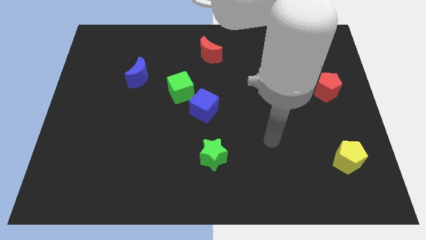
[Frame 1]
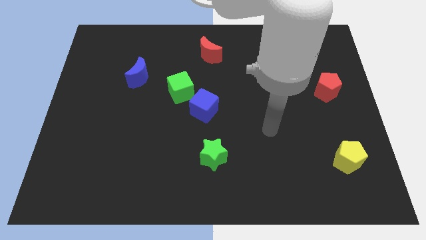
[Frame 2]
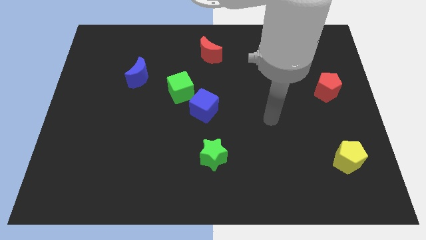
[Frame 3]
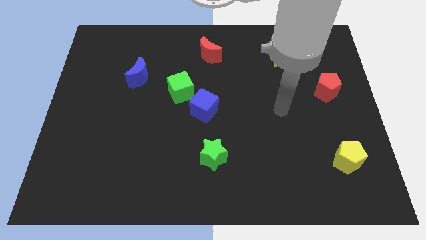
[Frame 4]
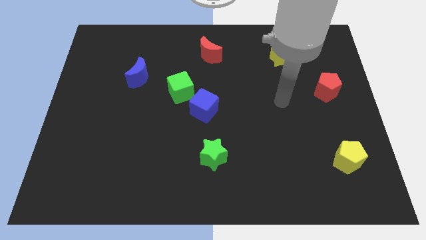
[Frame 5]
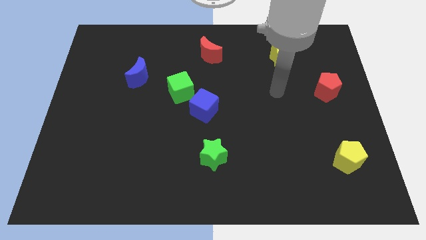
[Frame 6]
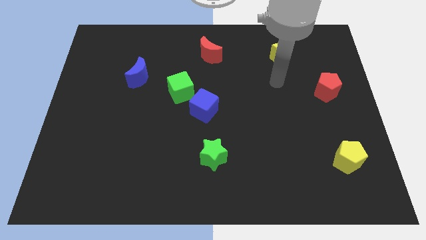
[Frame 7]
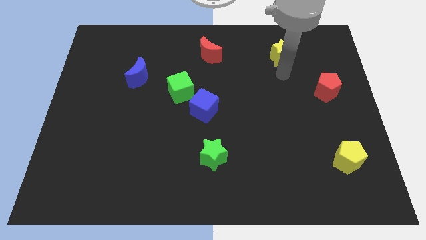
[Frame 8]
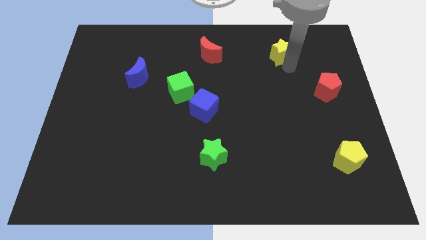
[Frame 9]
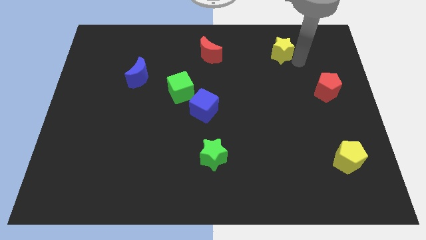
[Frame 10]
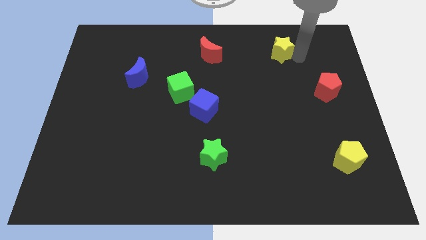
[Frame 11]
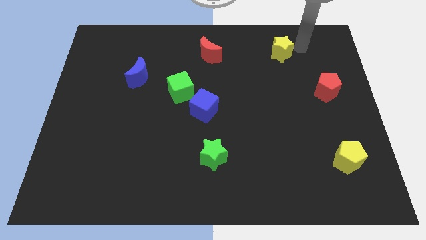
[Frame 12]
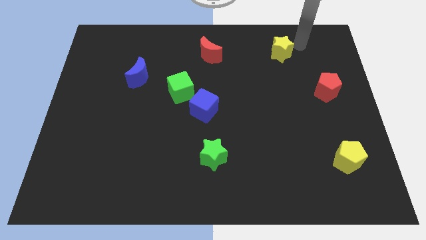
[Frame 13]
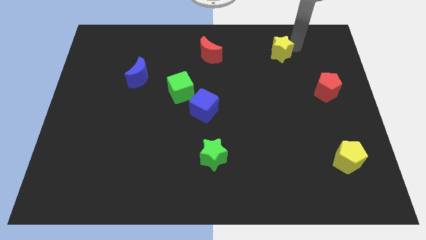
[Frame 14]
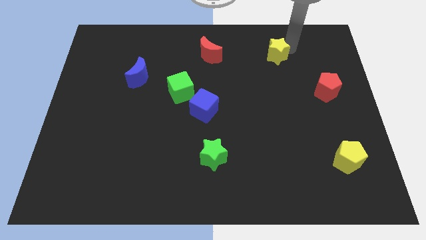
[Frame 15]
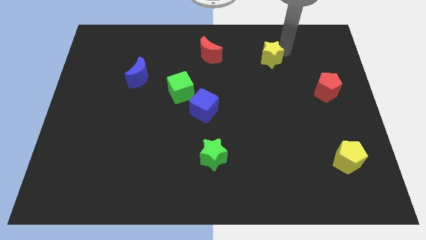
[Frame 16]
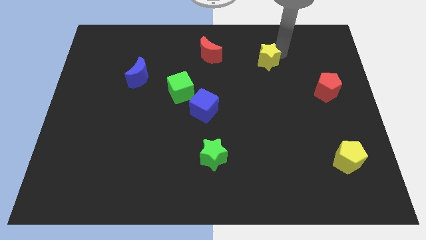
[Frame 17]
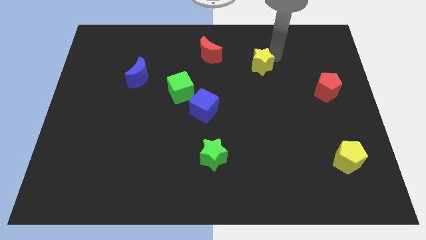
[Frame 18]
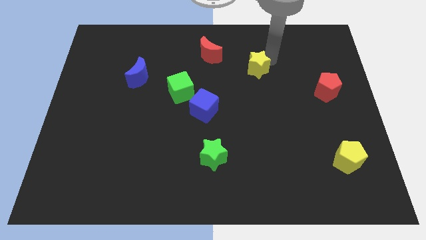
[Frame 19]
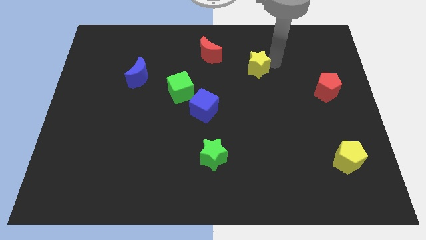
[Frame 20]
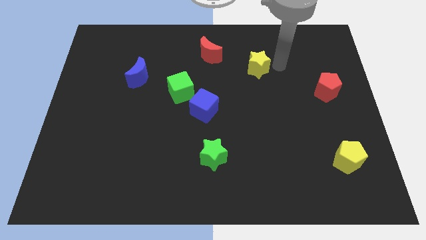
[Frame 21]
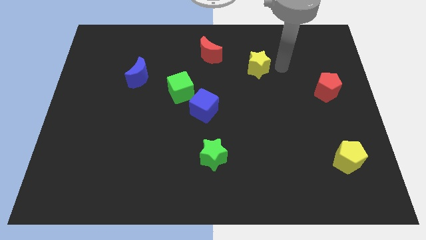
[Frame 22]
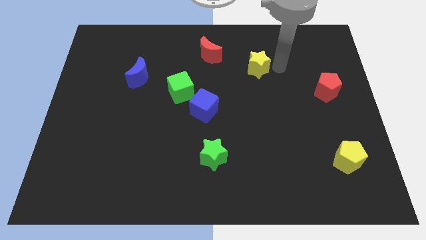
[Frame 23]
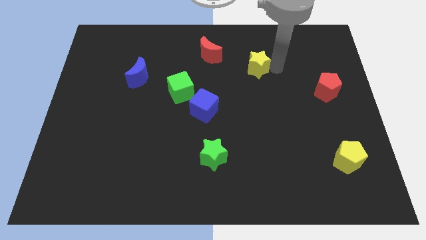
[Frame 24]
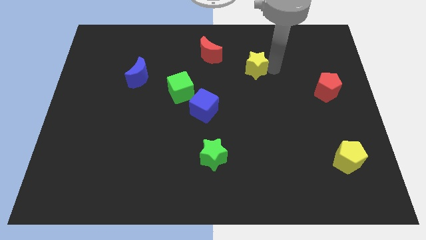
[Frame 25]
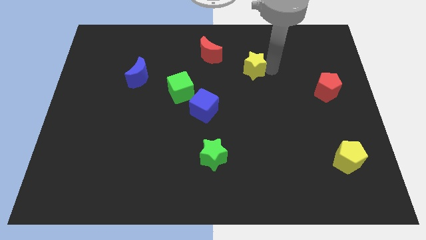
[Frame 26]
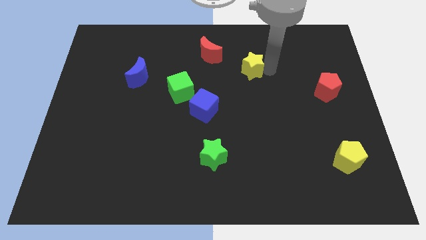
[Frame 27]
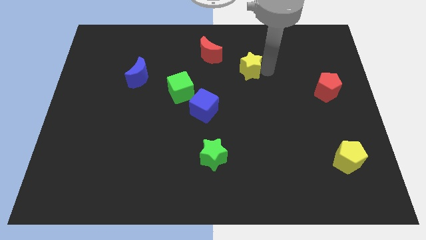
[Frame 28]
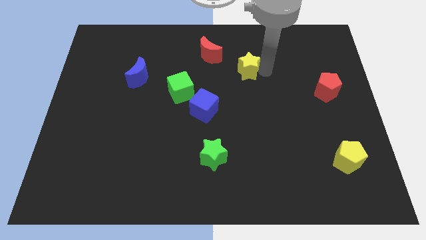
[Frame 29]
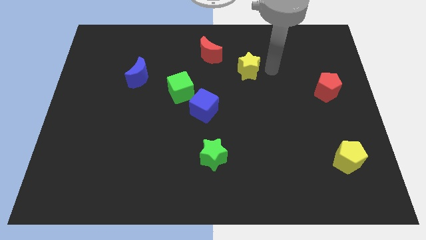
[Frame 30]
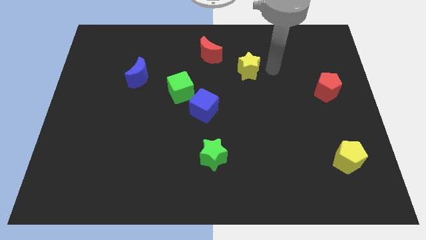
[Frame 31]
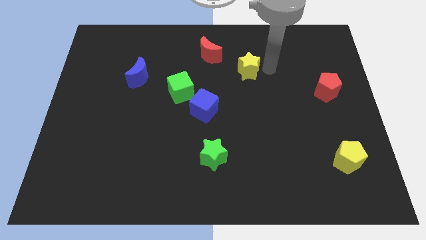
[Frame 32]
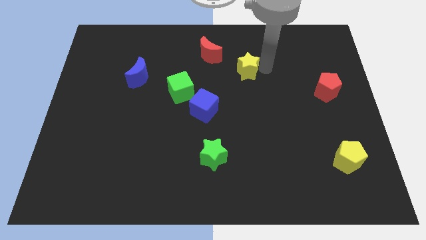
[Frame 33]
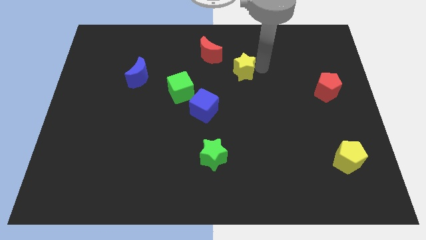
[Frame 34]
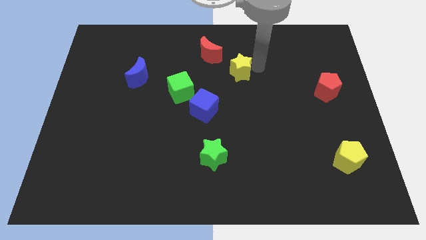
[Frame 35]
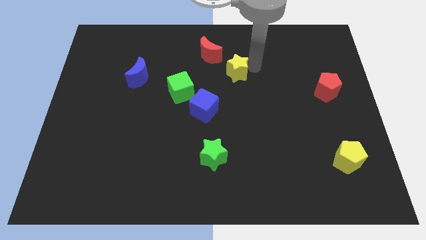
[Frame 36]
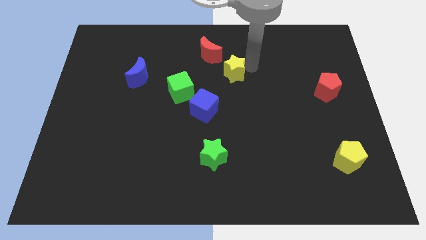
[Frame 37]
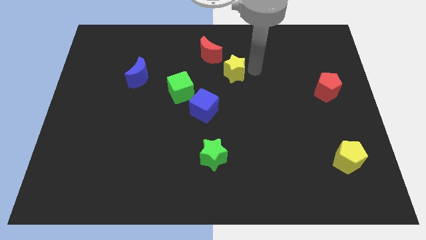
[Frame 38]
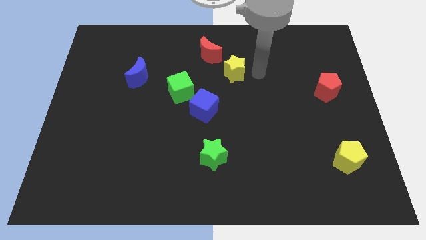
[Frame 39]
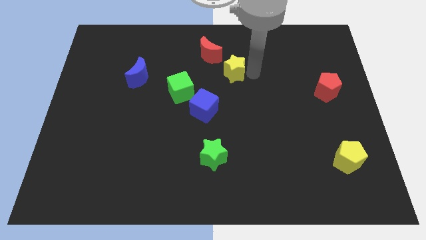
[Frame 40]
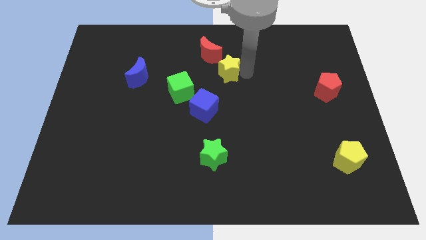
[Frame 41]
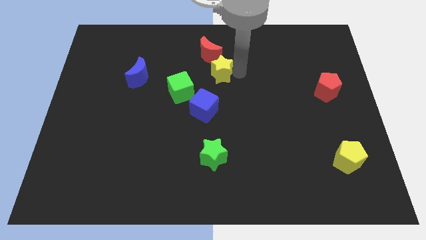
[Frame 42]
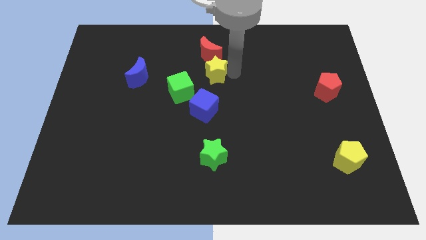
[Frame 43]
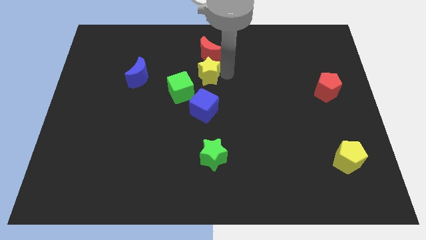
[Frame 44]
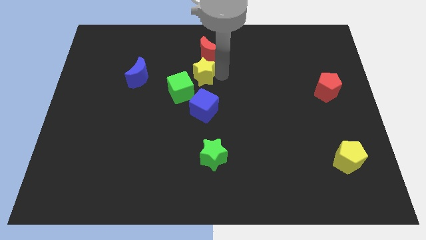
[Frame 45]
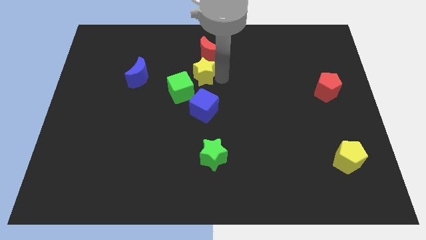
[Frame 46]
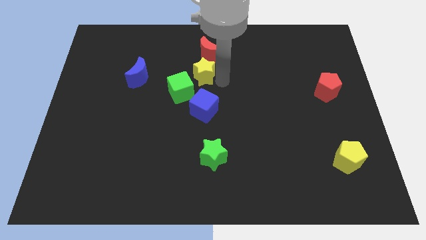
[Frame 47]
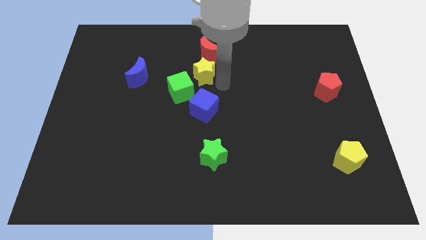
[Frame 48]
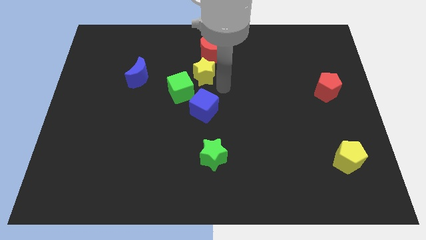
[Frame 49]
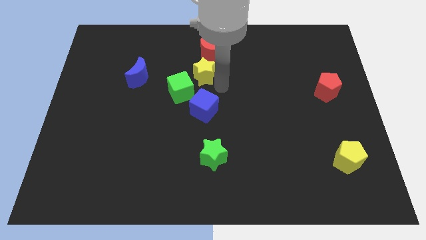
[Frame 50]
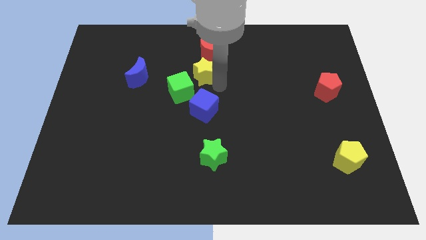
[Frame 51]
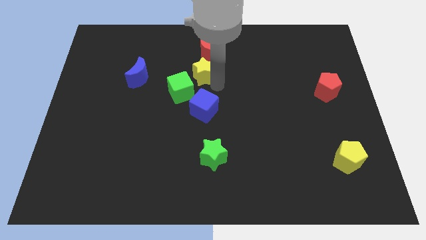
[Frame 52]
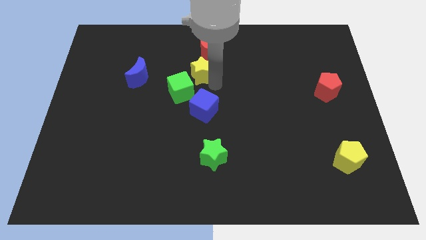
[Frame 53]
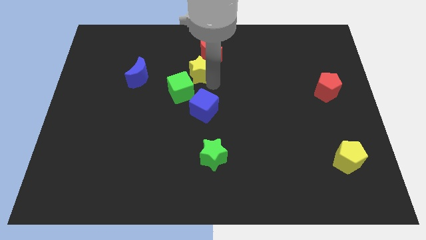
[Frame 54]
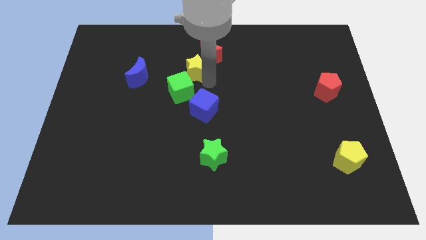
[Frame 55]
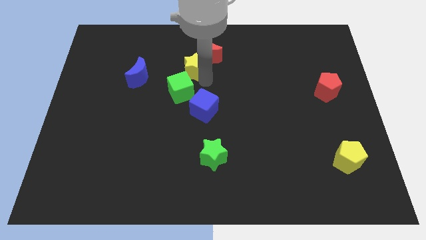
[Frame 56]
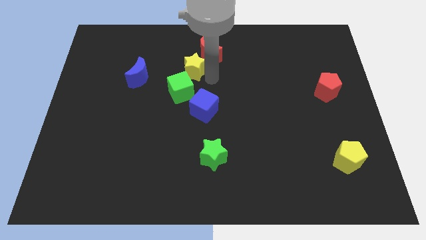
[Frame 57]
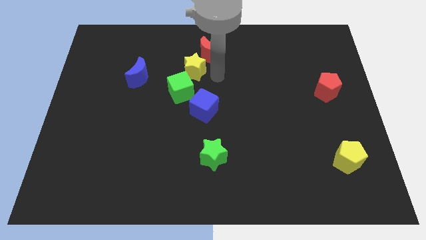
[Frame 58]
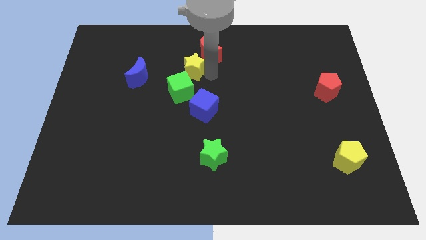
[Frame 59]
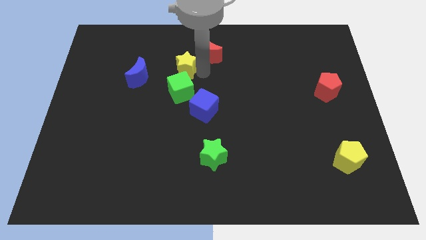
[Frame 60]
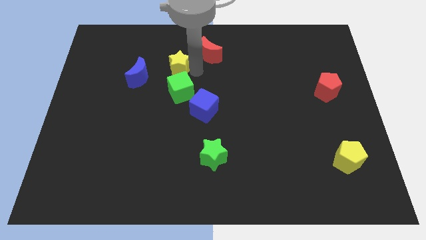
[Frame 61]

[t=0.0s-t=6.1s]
push the yellow star to the top right of the blue moon

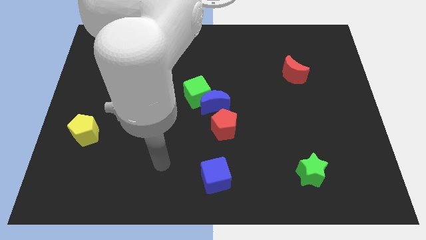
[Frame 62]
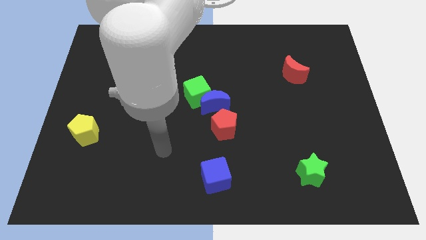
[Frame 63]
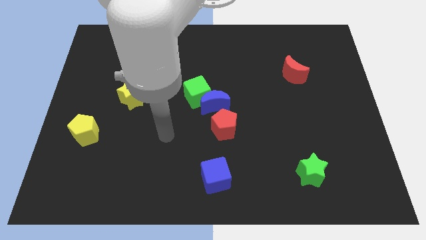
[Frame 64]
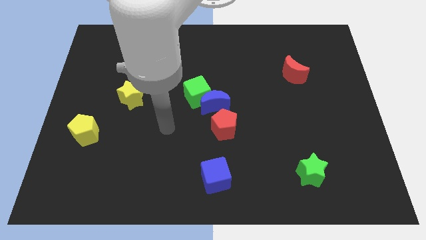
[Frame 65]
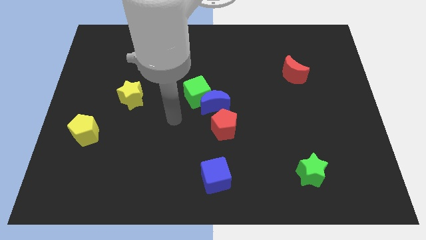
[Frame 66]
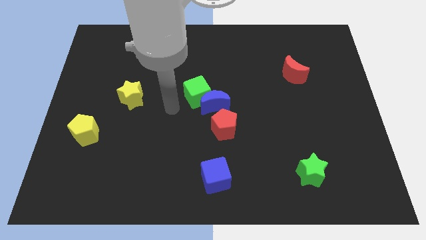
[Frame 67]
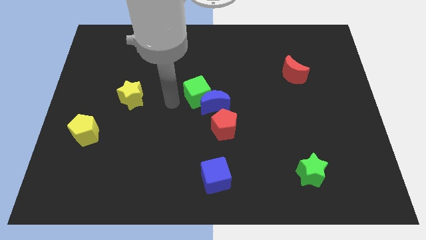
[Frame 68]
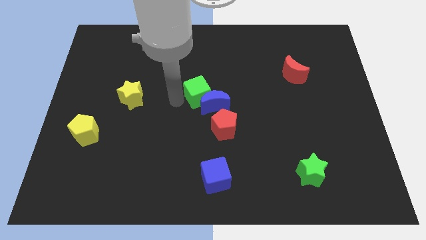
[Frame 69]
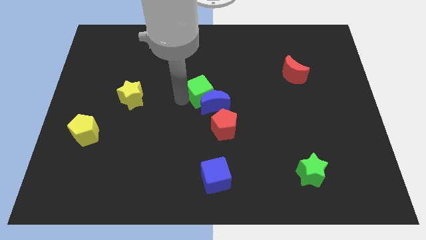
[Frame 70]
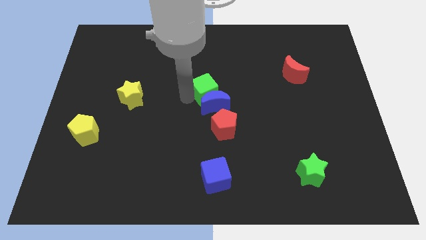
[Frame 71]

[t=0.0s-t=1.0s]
push the green cube above the red pentagon
